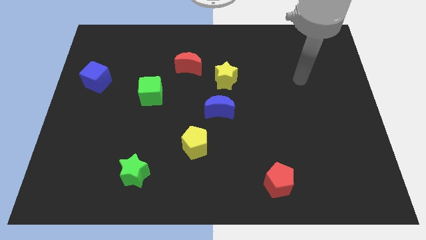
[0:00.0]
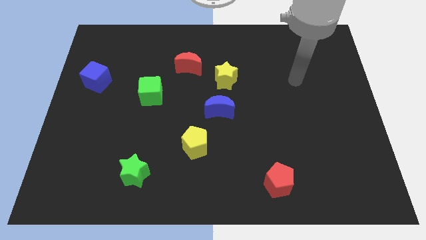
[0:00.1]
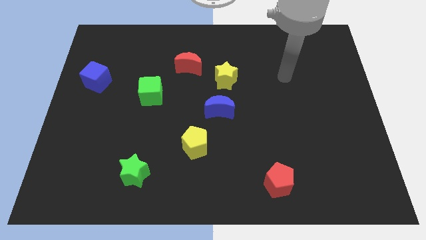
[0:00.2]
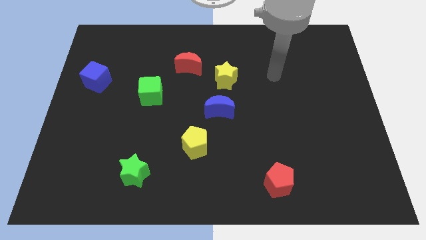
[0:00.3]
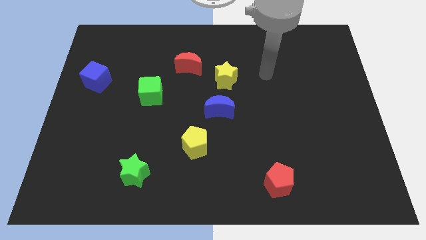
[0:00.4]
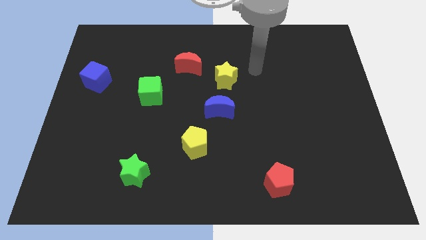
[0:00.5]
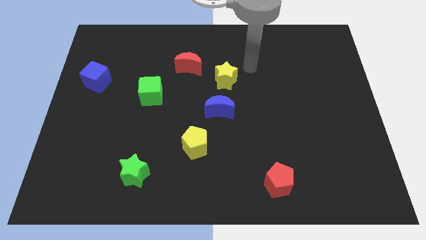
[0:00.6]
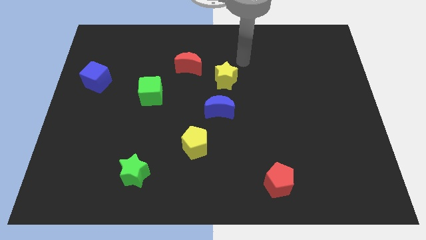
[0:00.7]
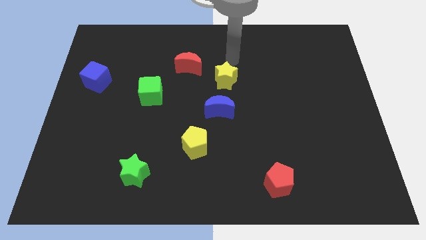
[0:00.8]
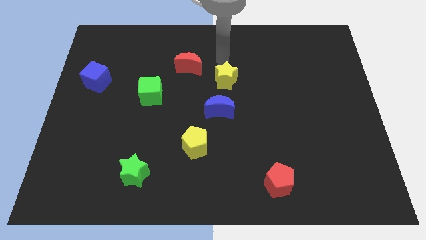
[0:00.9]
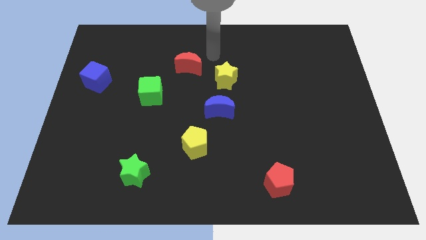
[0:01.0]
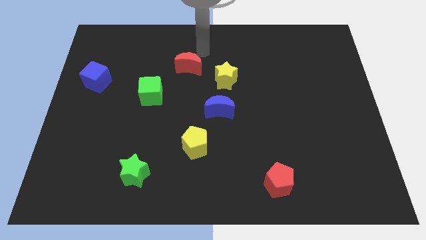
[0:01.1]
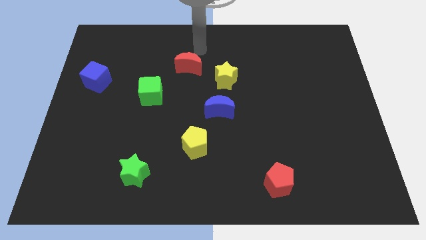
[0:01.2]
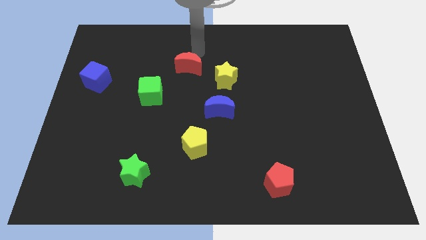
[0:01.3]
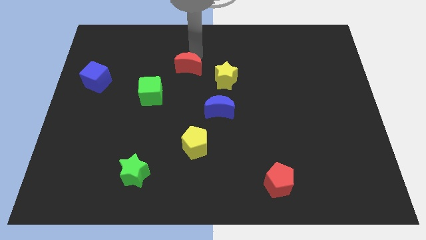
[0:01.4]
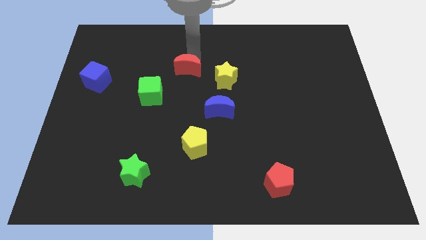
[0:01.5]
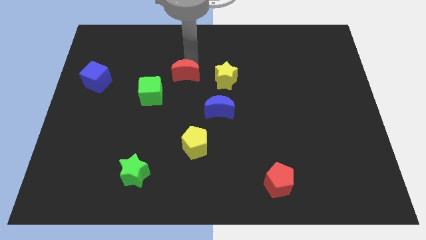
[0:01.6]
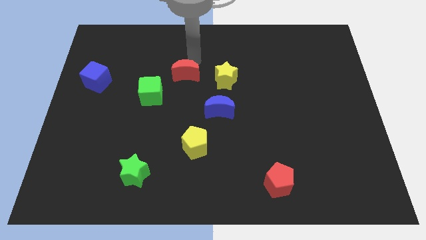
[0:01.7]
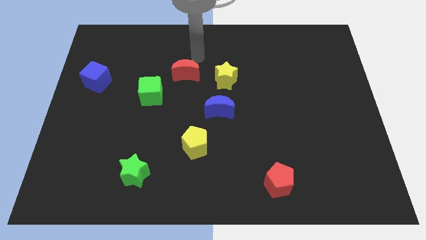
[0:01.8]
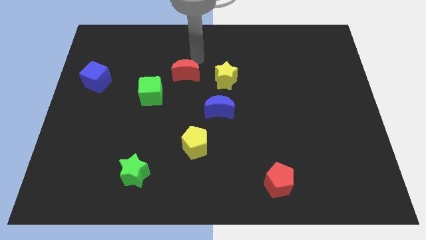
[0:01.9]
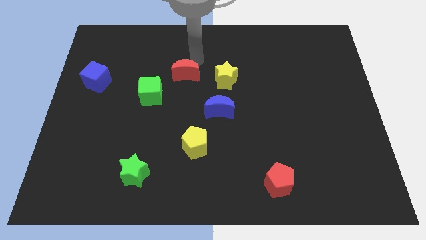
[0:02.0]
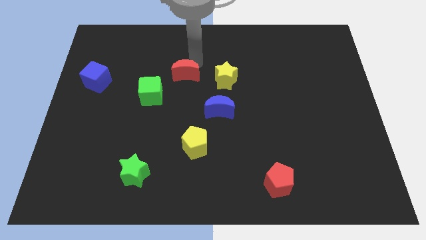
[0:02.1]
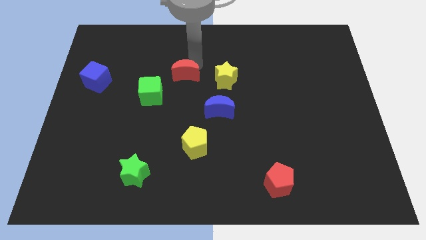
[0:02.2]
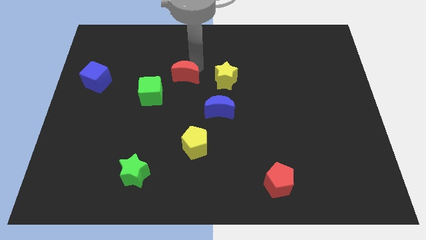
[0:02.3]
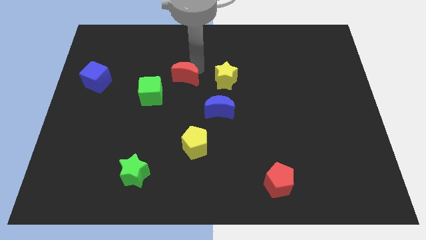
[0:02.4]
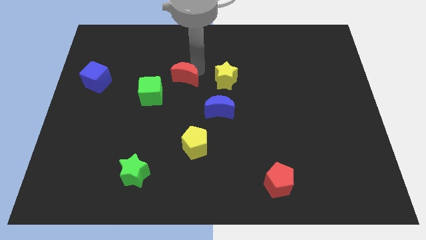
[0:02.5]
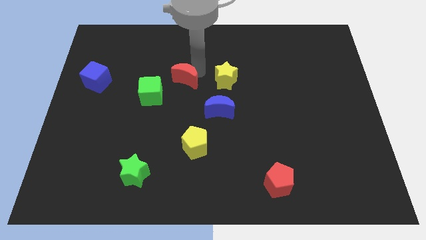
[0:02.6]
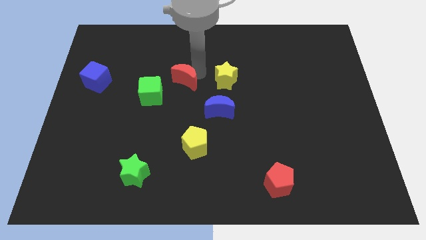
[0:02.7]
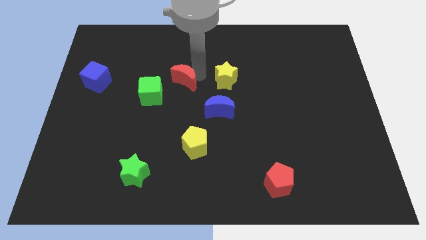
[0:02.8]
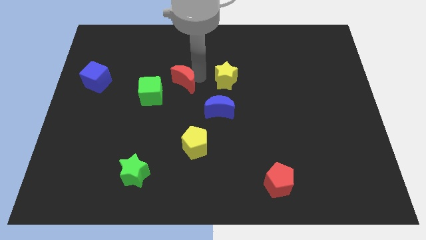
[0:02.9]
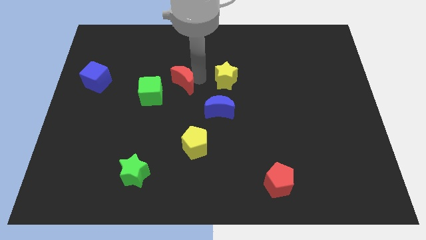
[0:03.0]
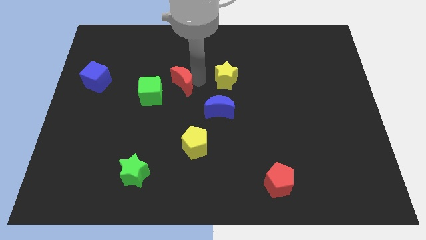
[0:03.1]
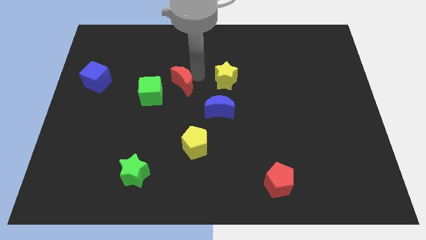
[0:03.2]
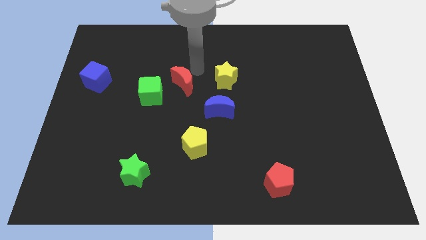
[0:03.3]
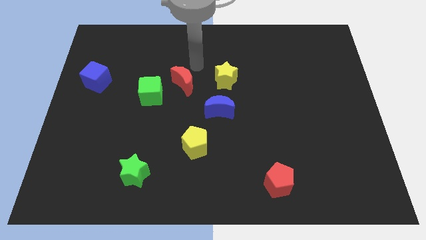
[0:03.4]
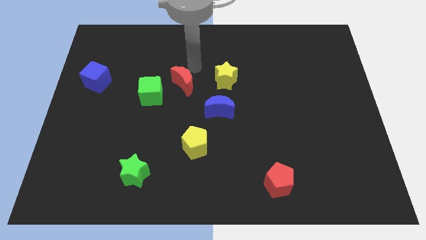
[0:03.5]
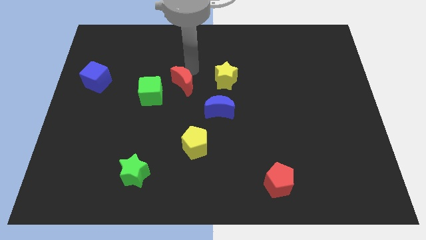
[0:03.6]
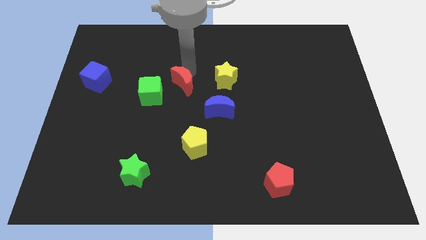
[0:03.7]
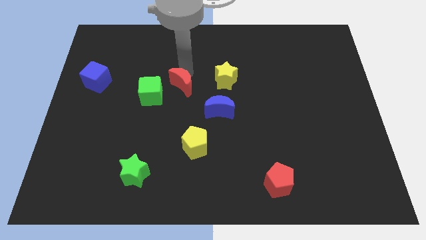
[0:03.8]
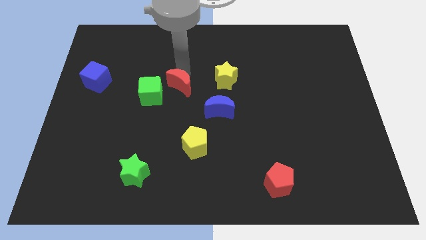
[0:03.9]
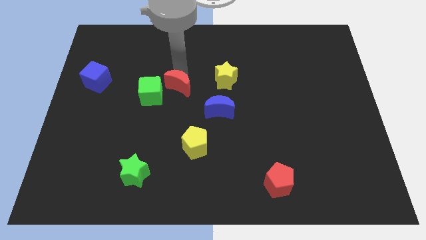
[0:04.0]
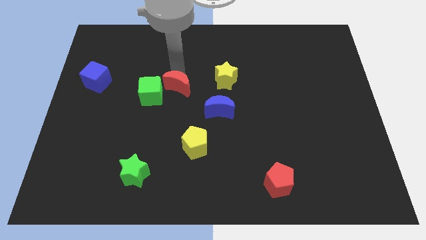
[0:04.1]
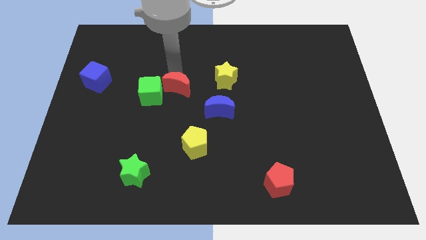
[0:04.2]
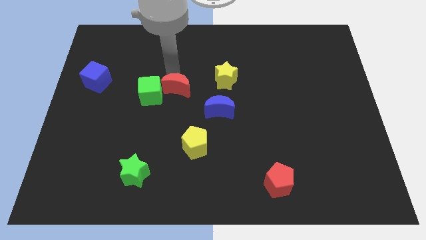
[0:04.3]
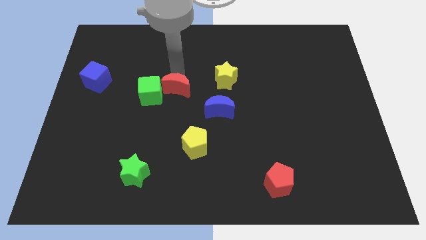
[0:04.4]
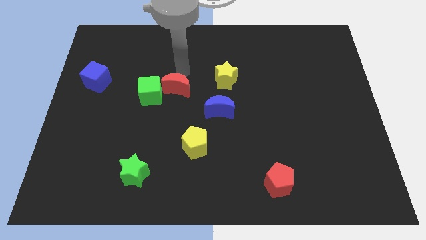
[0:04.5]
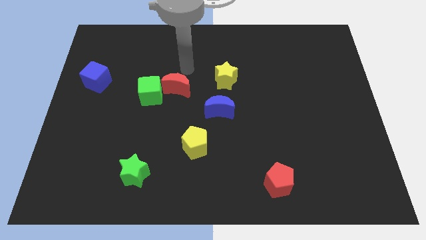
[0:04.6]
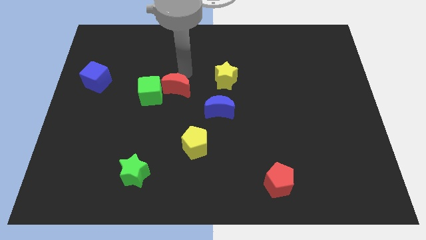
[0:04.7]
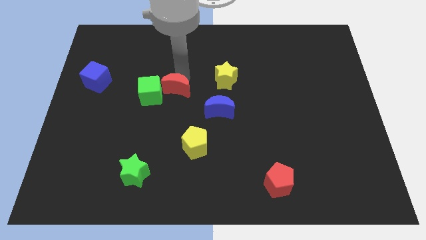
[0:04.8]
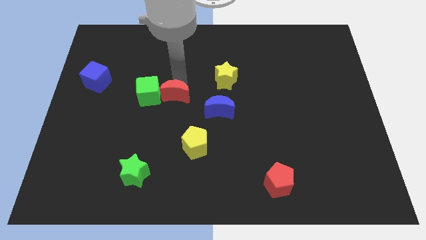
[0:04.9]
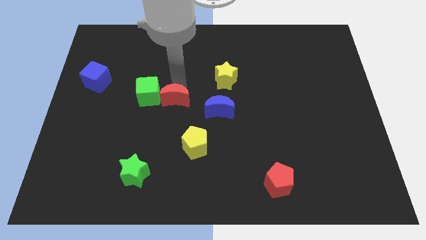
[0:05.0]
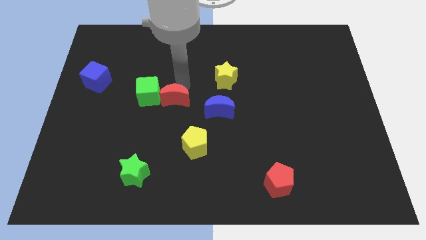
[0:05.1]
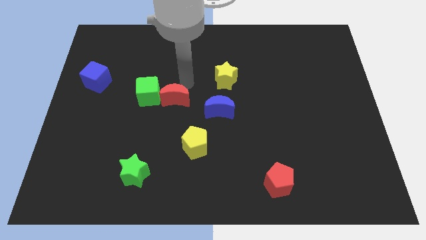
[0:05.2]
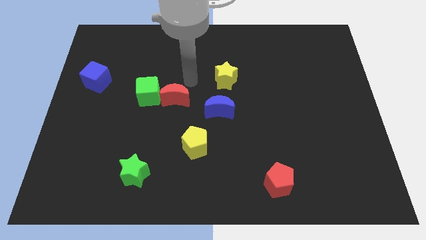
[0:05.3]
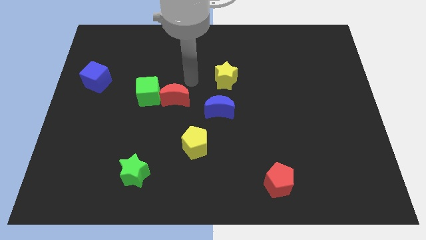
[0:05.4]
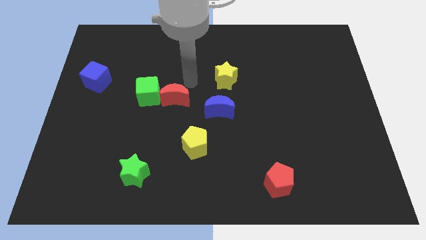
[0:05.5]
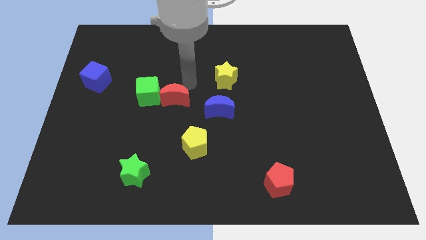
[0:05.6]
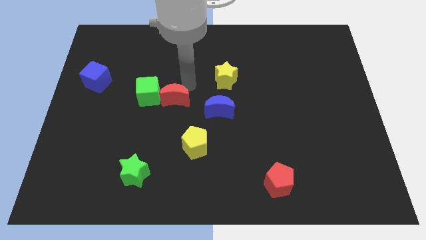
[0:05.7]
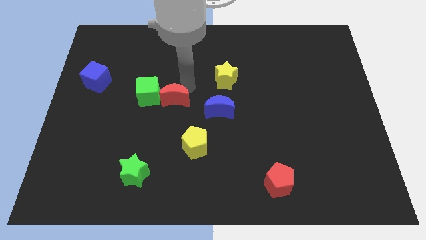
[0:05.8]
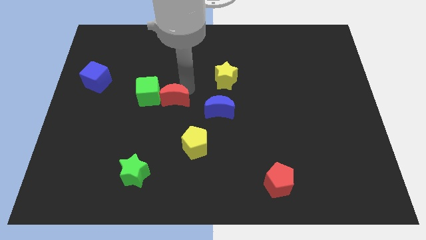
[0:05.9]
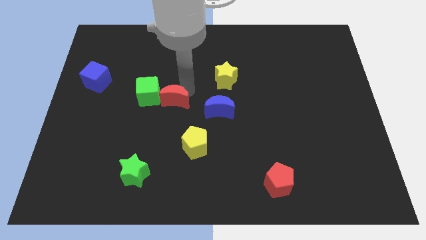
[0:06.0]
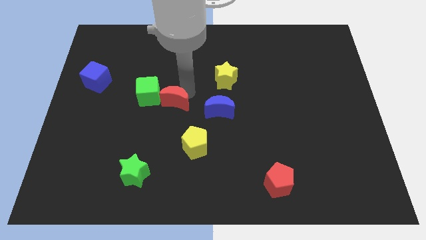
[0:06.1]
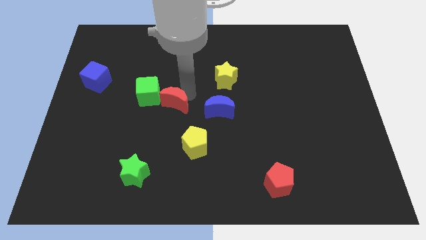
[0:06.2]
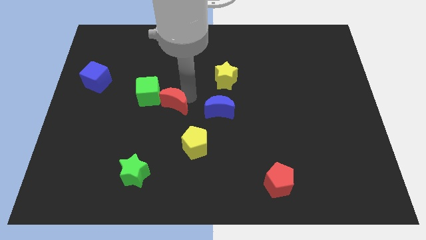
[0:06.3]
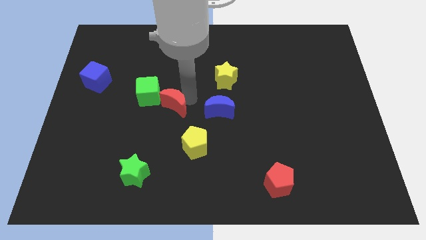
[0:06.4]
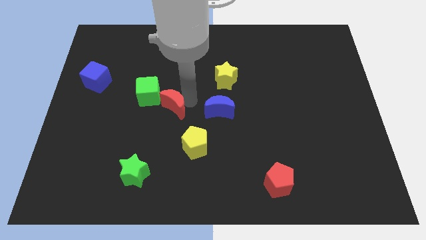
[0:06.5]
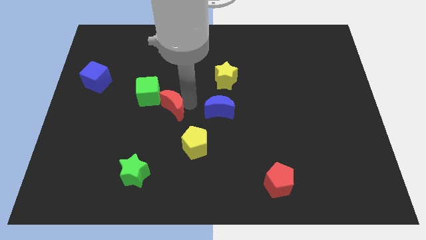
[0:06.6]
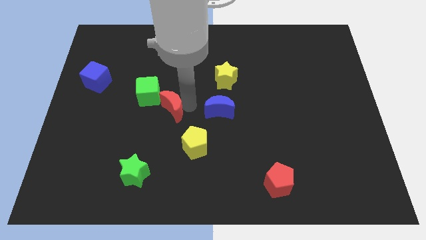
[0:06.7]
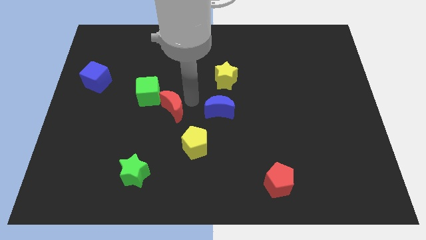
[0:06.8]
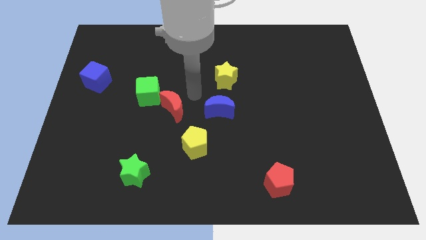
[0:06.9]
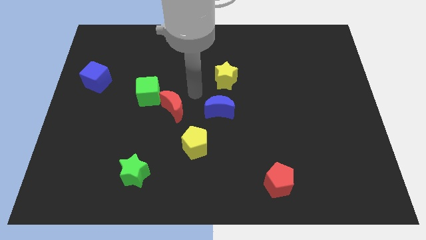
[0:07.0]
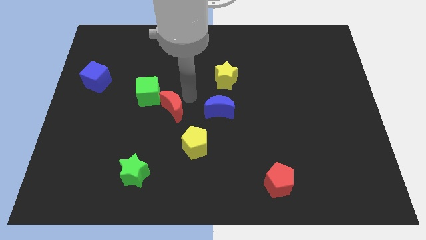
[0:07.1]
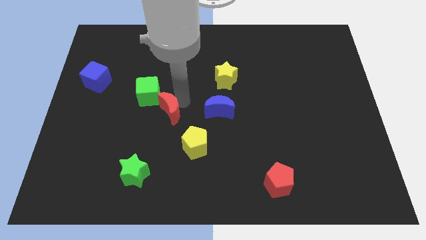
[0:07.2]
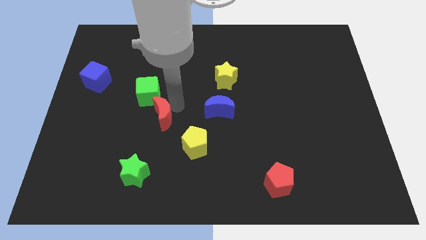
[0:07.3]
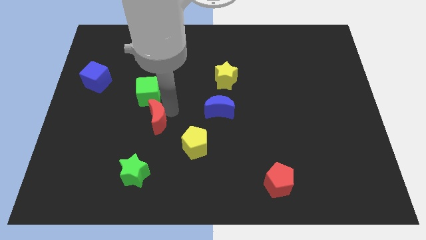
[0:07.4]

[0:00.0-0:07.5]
push the red moon above the green star

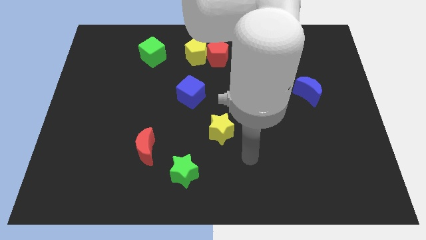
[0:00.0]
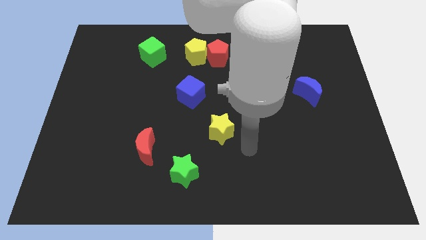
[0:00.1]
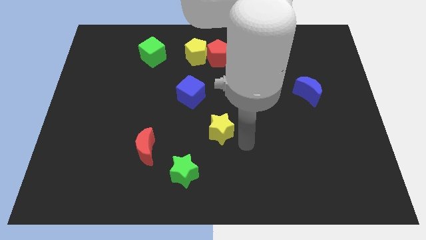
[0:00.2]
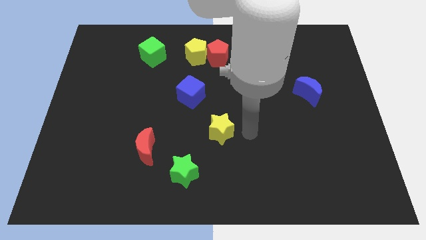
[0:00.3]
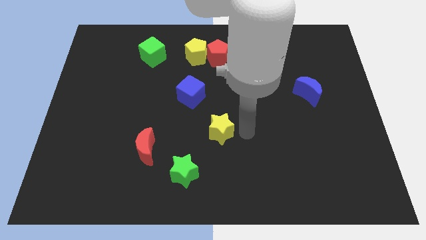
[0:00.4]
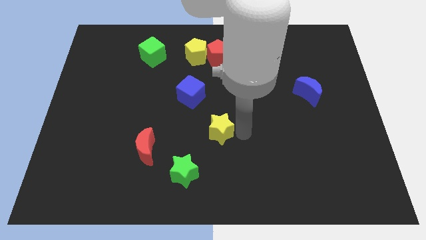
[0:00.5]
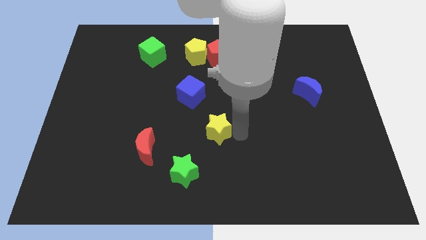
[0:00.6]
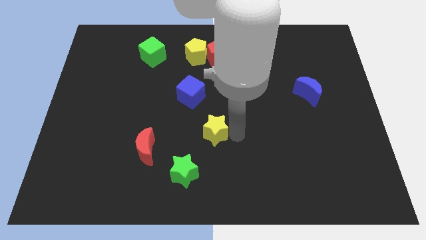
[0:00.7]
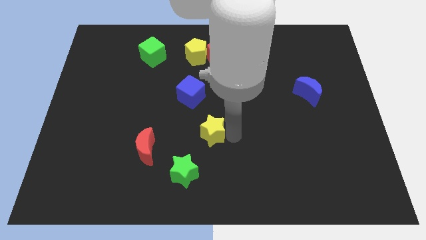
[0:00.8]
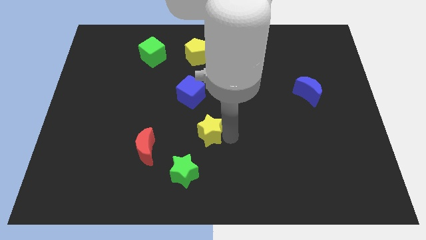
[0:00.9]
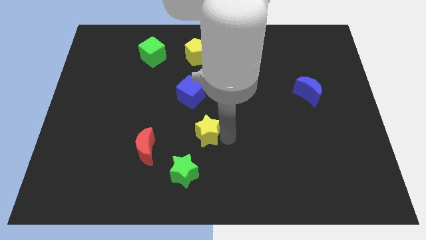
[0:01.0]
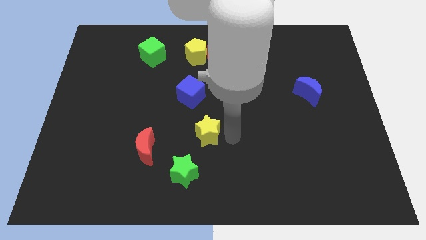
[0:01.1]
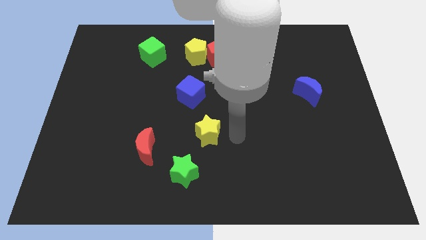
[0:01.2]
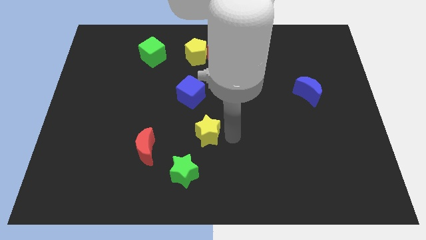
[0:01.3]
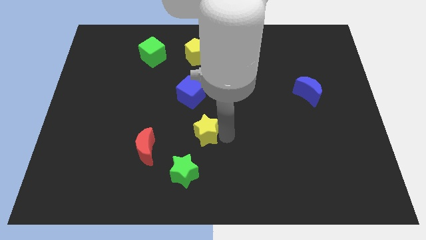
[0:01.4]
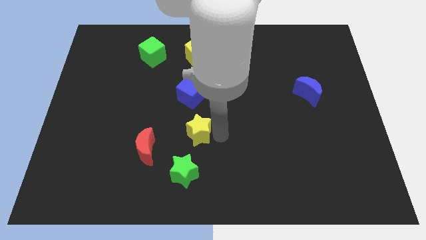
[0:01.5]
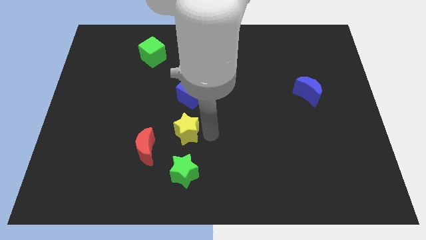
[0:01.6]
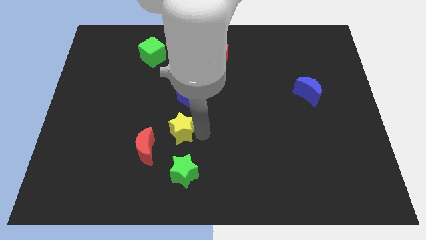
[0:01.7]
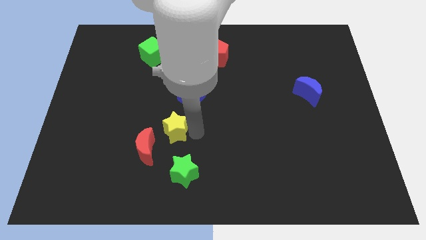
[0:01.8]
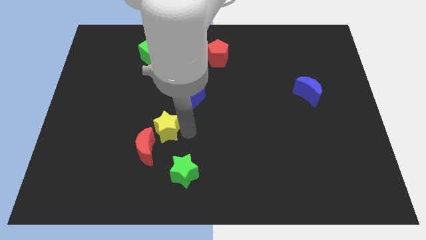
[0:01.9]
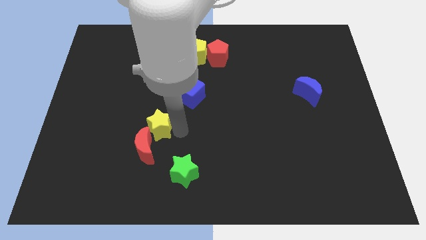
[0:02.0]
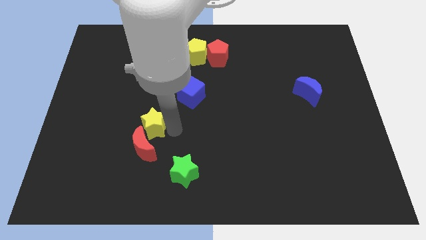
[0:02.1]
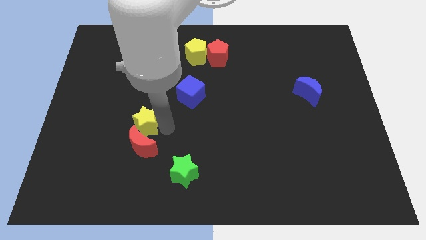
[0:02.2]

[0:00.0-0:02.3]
move the yellow star to the top left of the red moon
